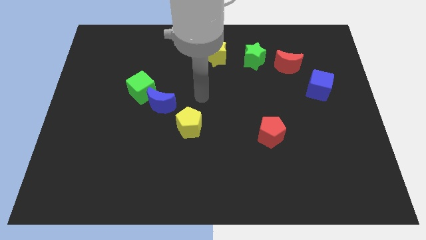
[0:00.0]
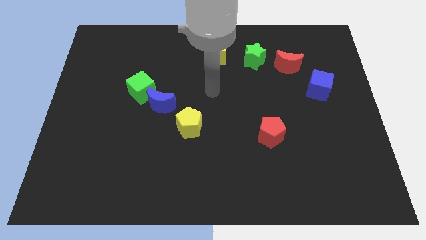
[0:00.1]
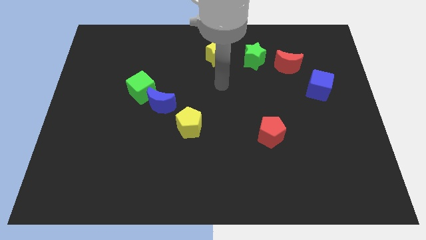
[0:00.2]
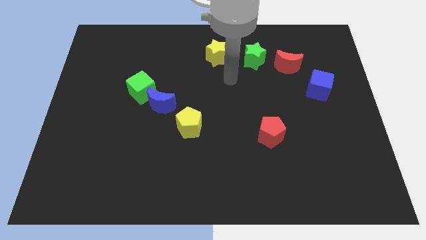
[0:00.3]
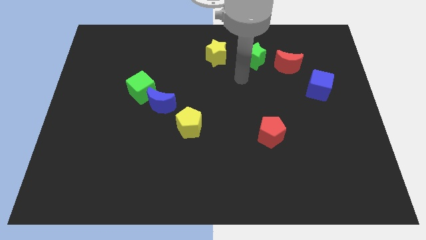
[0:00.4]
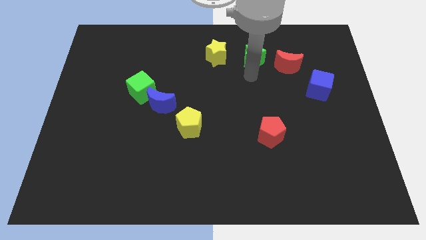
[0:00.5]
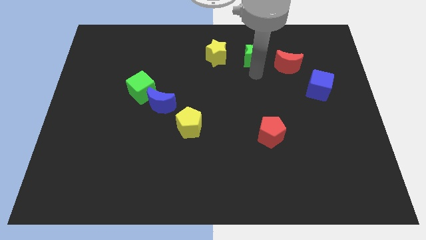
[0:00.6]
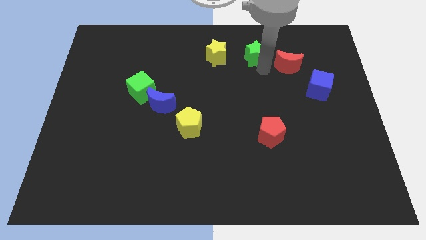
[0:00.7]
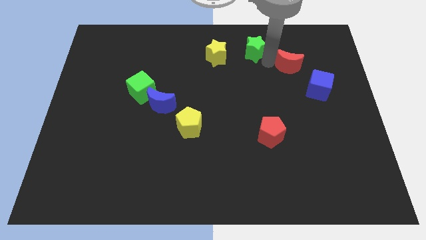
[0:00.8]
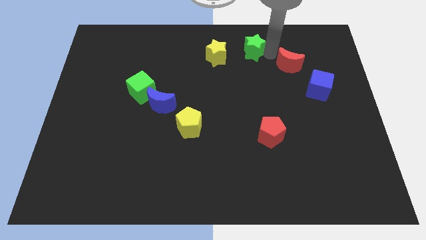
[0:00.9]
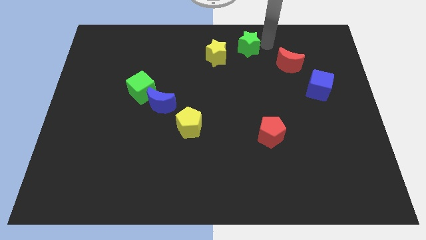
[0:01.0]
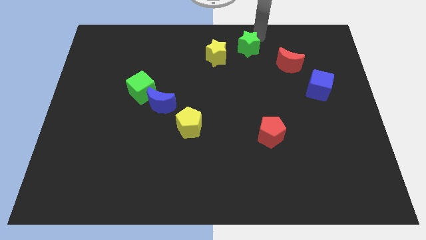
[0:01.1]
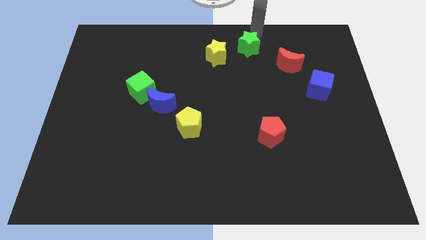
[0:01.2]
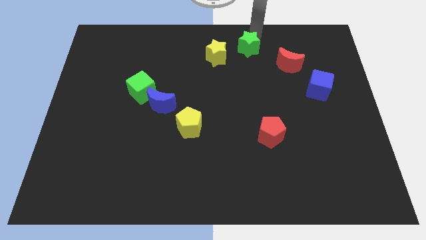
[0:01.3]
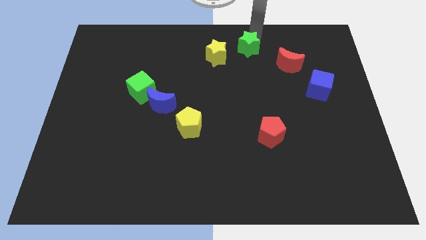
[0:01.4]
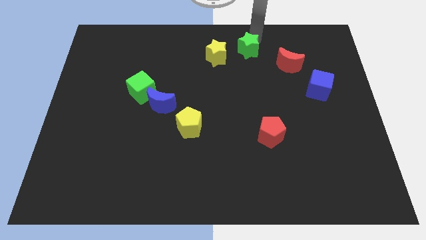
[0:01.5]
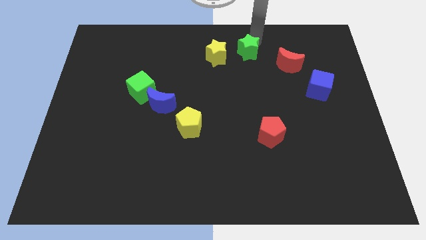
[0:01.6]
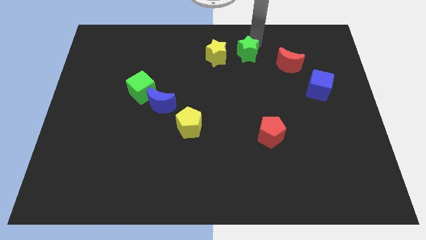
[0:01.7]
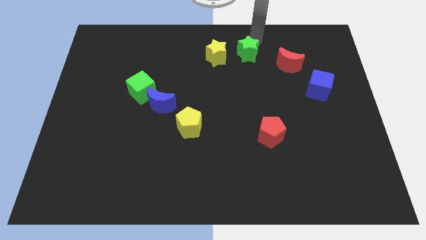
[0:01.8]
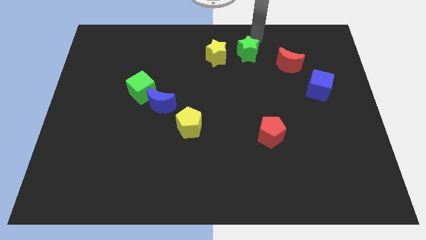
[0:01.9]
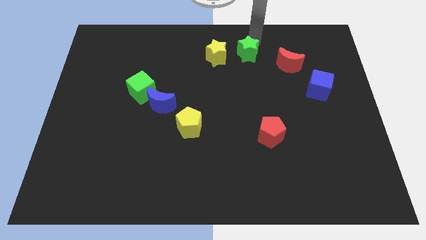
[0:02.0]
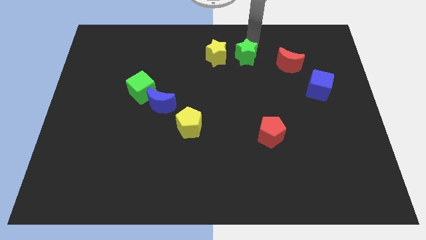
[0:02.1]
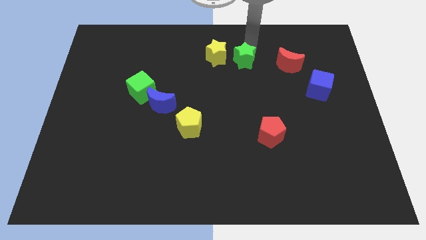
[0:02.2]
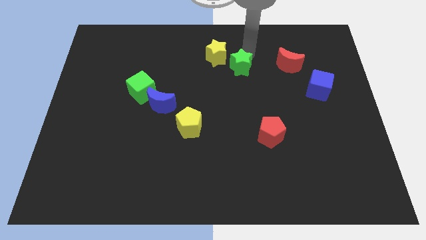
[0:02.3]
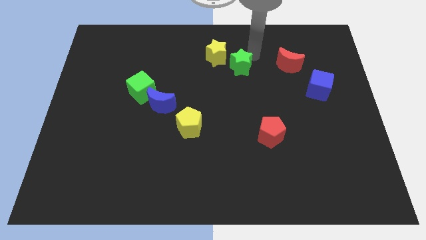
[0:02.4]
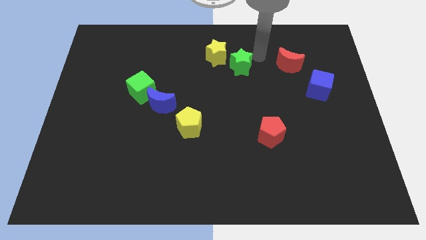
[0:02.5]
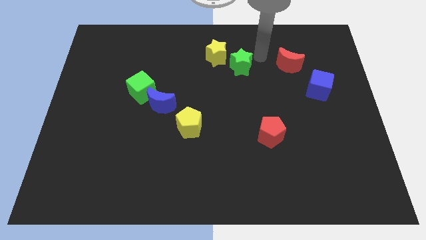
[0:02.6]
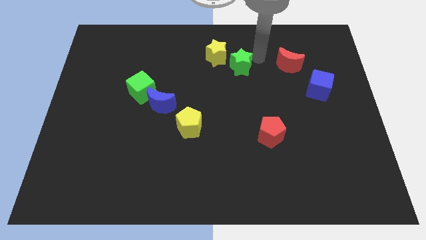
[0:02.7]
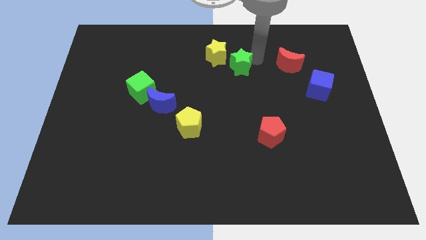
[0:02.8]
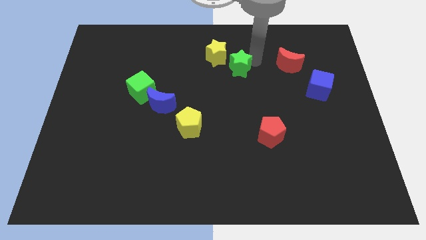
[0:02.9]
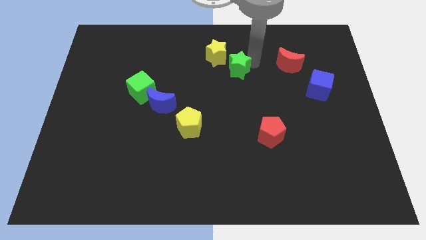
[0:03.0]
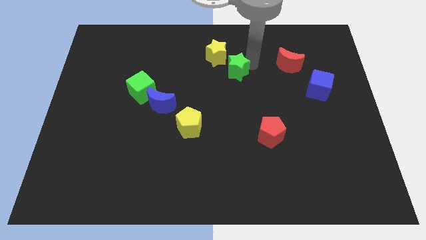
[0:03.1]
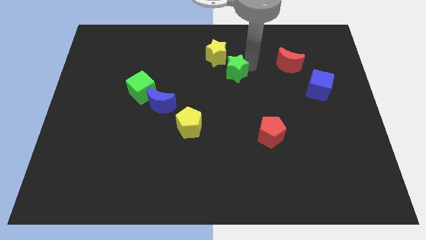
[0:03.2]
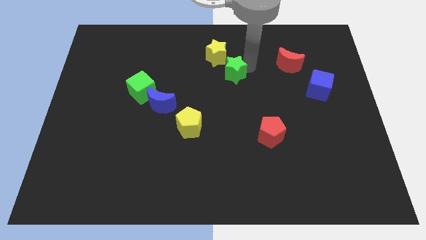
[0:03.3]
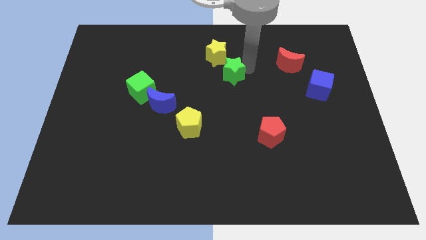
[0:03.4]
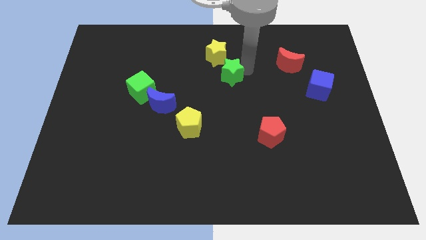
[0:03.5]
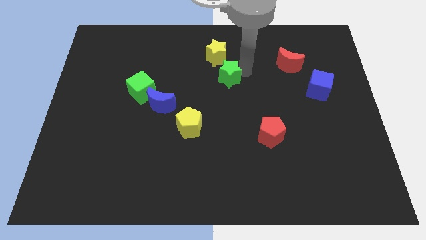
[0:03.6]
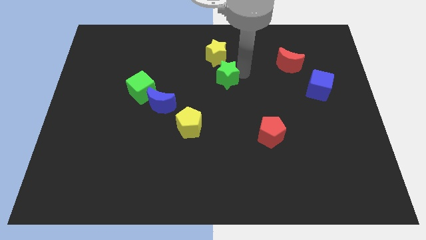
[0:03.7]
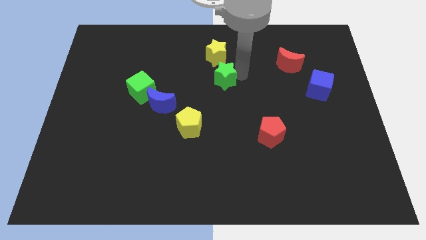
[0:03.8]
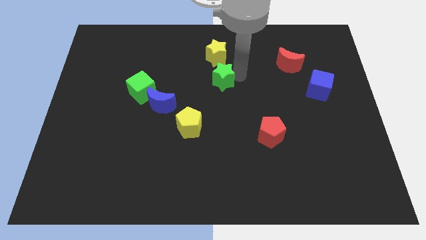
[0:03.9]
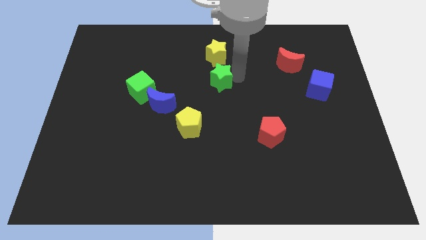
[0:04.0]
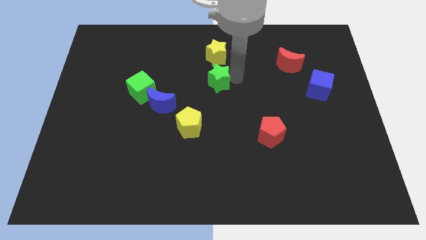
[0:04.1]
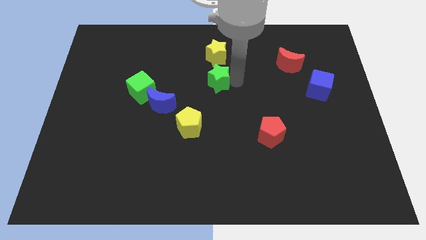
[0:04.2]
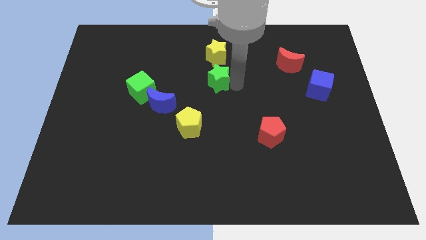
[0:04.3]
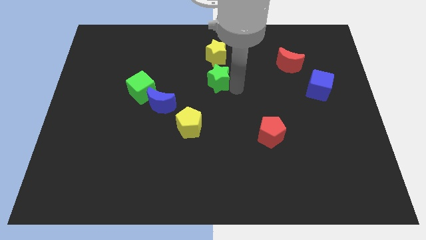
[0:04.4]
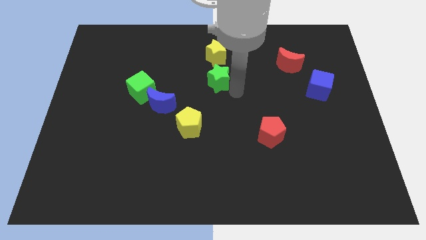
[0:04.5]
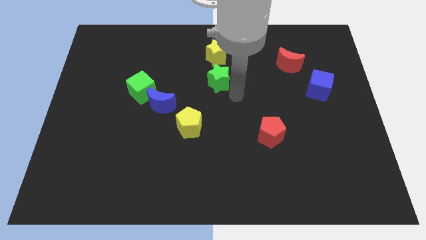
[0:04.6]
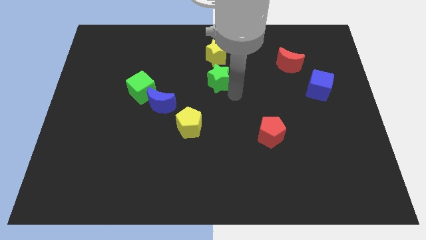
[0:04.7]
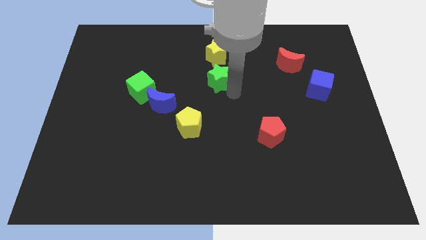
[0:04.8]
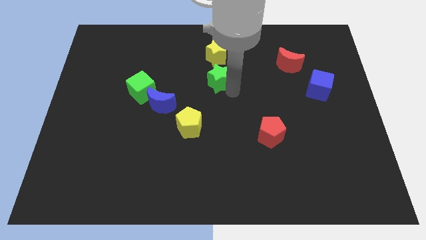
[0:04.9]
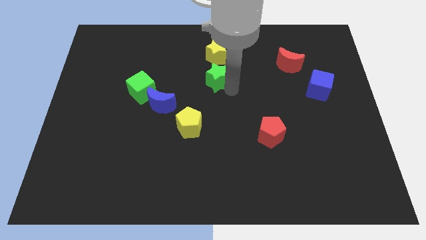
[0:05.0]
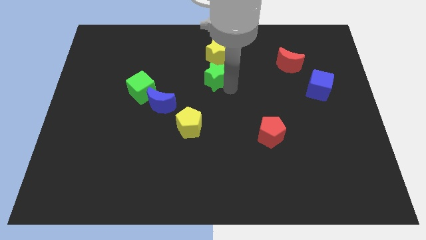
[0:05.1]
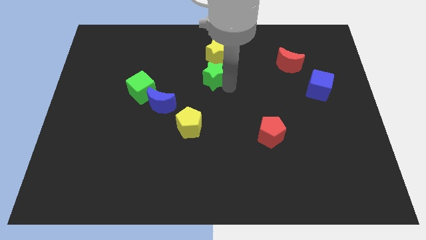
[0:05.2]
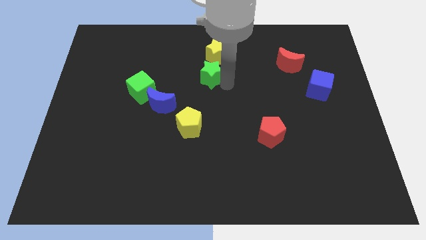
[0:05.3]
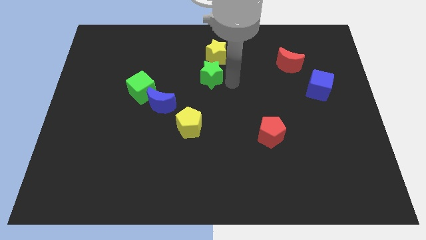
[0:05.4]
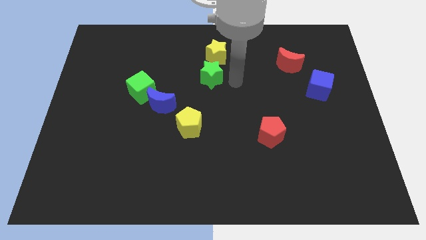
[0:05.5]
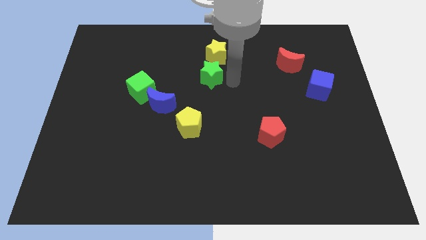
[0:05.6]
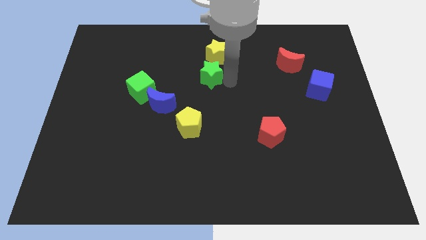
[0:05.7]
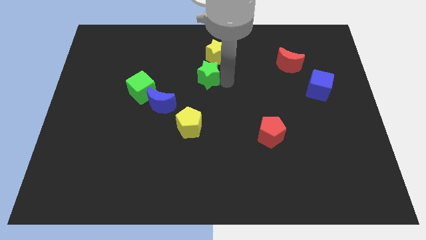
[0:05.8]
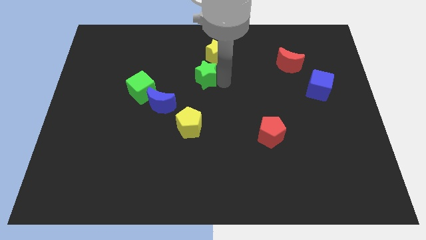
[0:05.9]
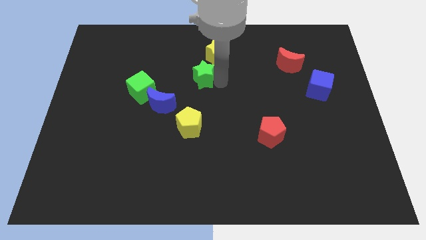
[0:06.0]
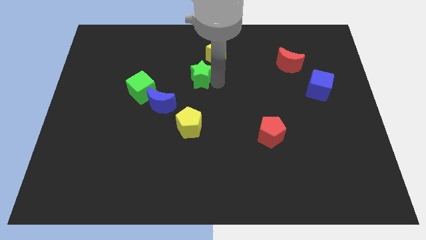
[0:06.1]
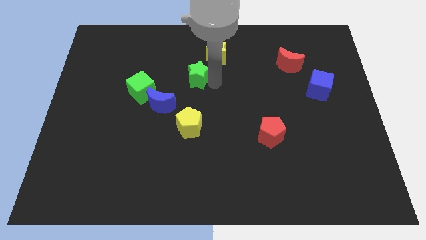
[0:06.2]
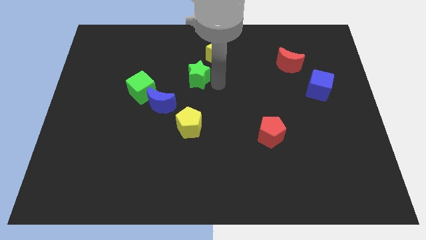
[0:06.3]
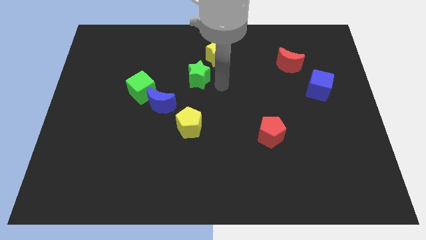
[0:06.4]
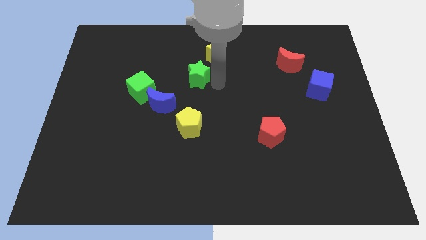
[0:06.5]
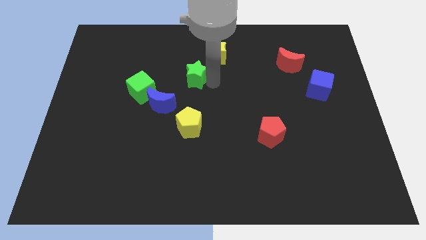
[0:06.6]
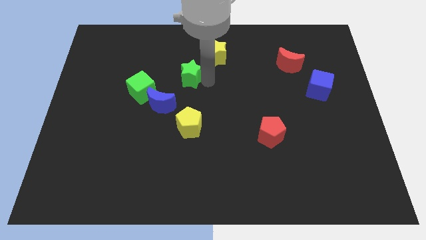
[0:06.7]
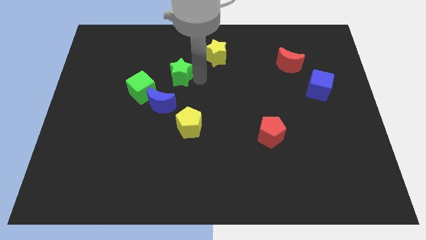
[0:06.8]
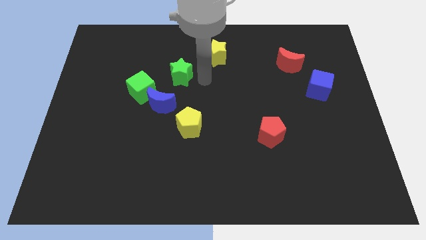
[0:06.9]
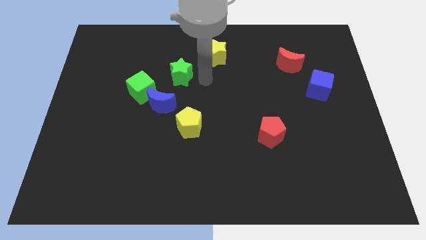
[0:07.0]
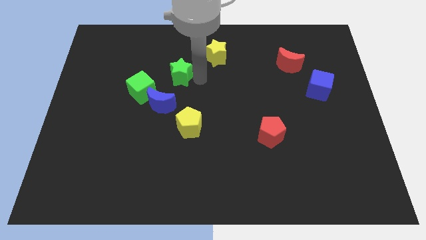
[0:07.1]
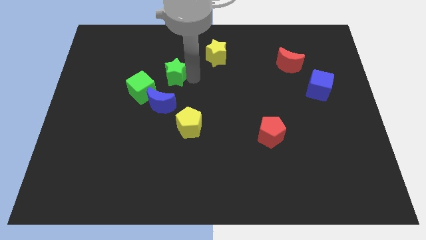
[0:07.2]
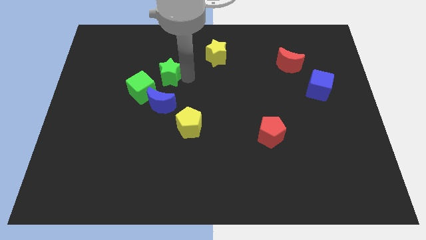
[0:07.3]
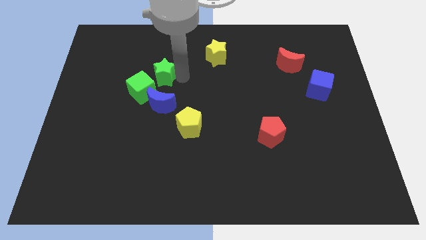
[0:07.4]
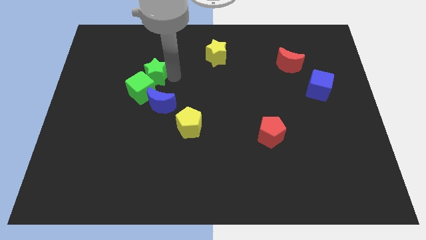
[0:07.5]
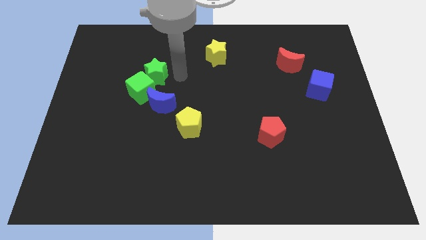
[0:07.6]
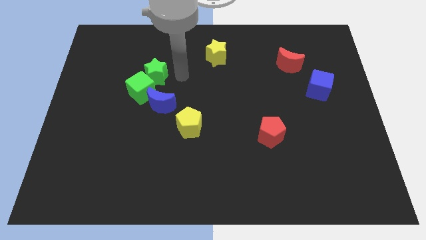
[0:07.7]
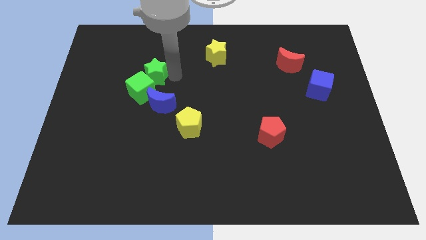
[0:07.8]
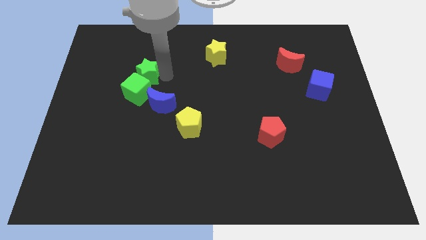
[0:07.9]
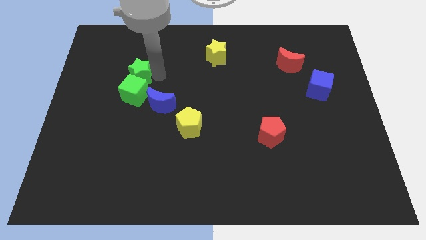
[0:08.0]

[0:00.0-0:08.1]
push the green star diagonally up and to the left of the green cube
